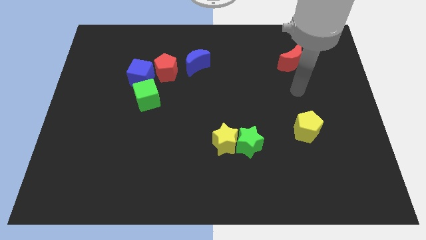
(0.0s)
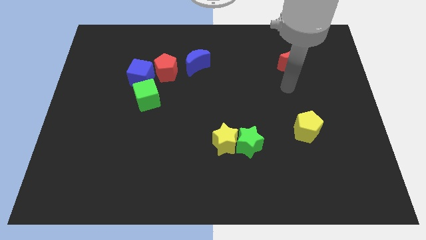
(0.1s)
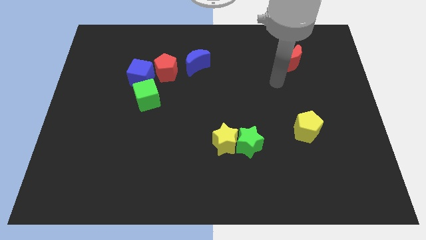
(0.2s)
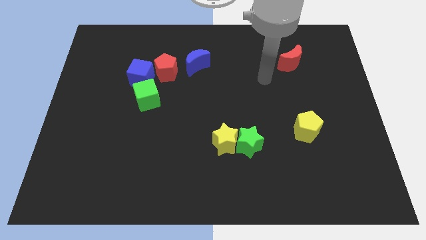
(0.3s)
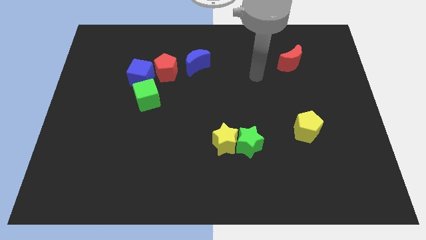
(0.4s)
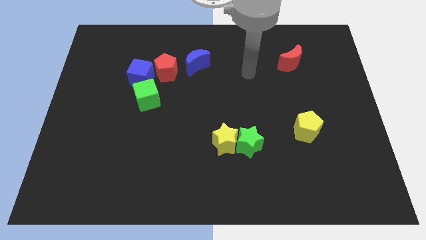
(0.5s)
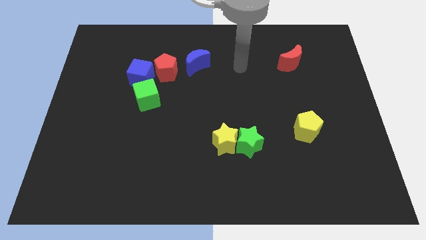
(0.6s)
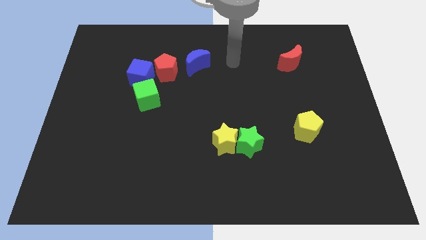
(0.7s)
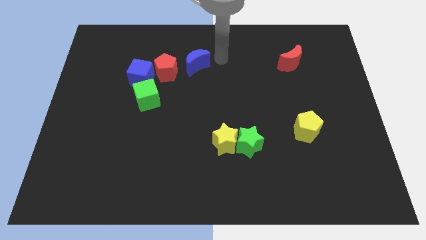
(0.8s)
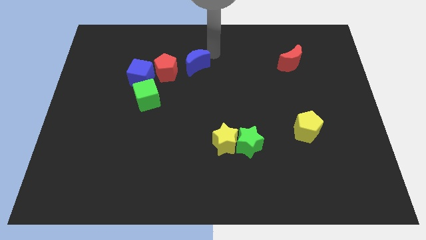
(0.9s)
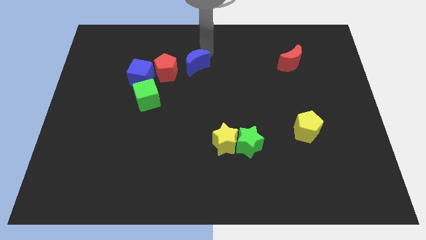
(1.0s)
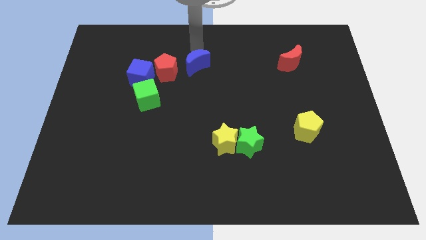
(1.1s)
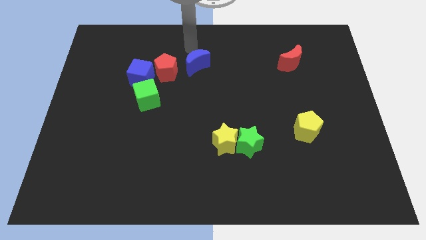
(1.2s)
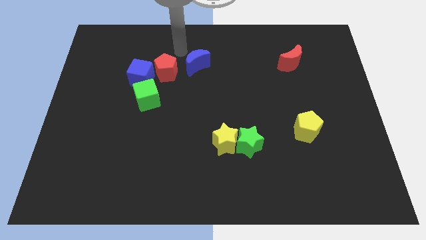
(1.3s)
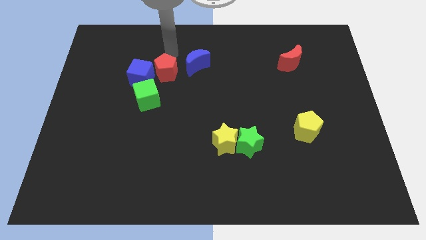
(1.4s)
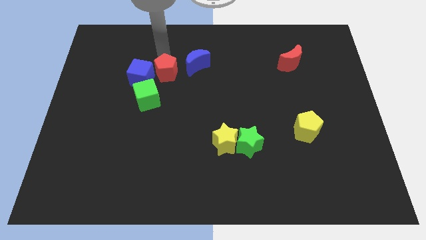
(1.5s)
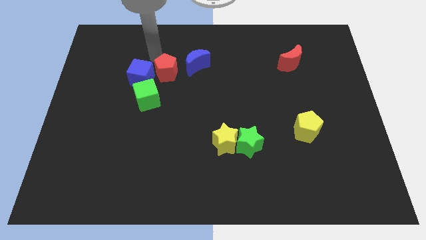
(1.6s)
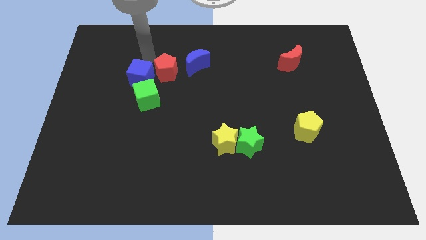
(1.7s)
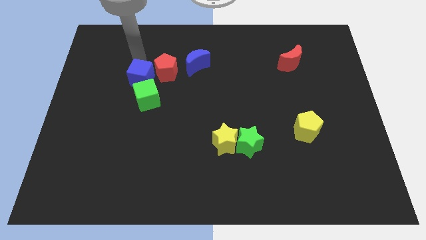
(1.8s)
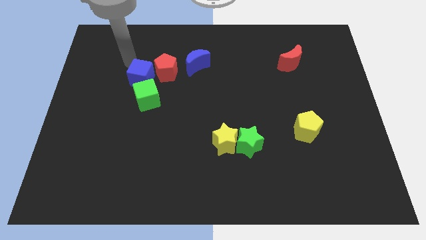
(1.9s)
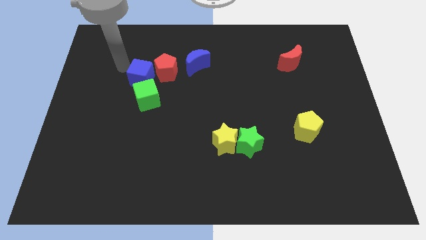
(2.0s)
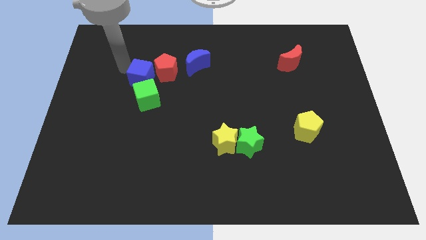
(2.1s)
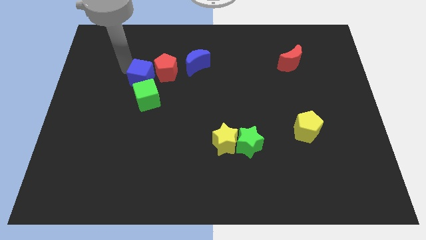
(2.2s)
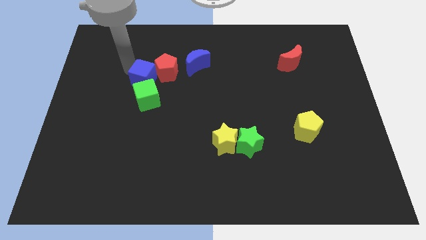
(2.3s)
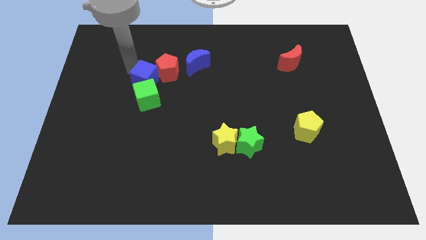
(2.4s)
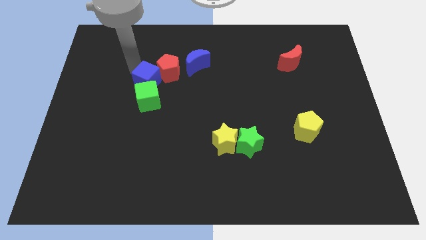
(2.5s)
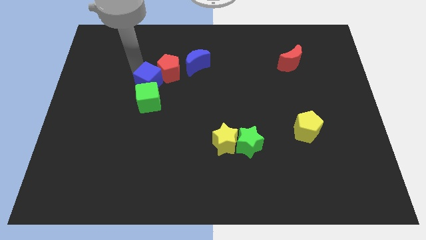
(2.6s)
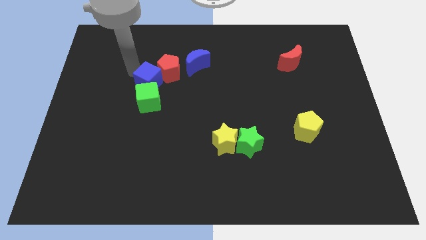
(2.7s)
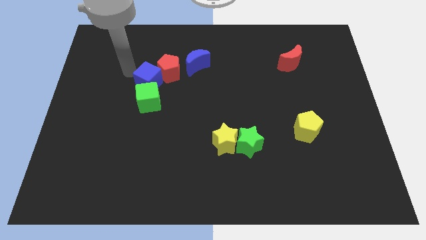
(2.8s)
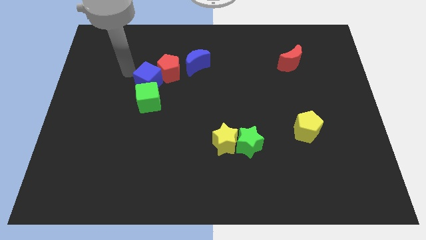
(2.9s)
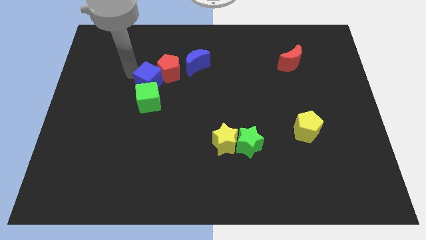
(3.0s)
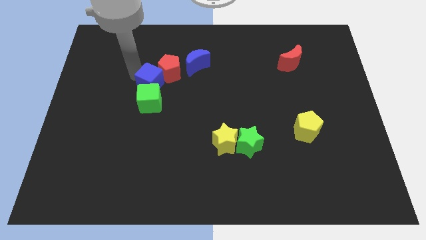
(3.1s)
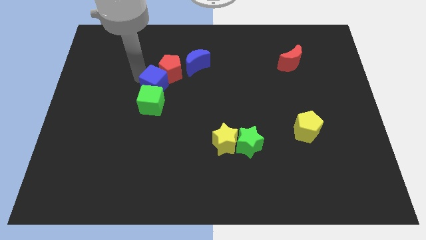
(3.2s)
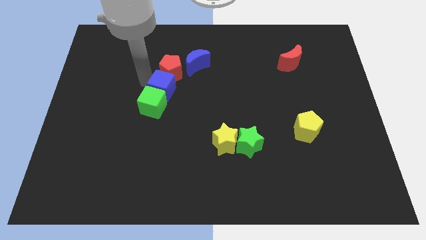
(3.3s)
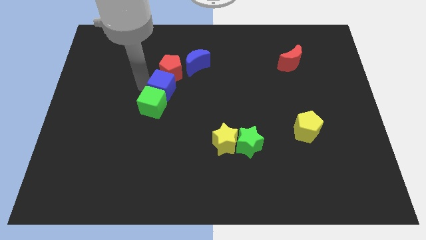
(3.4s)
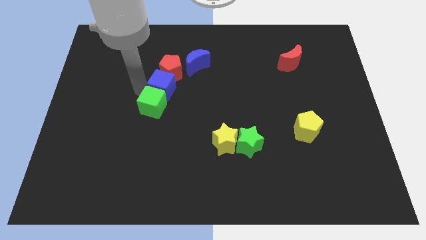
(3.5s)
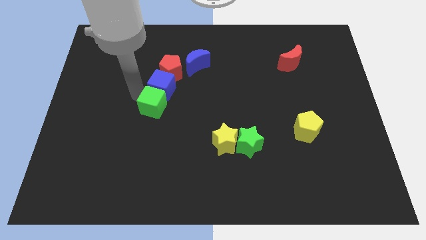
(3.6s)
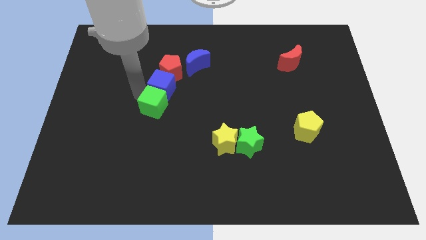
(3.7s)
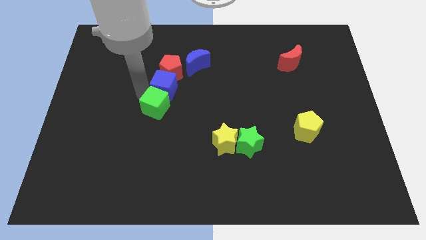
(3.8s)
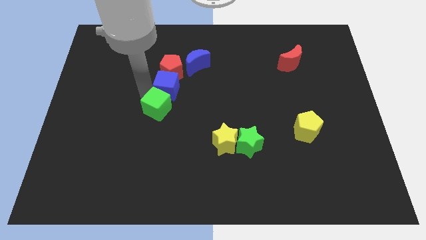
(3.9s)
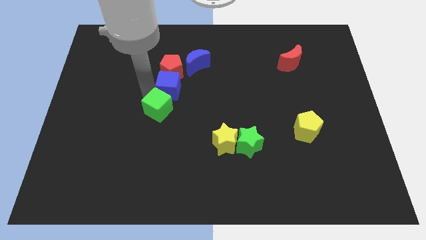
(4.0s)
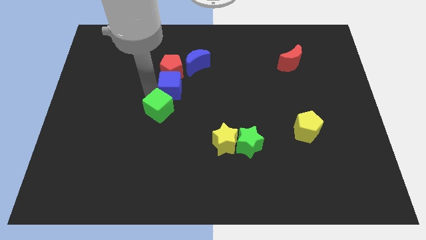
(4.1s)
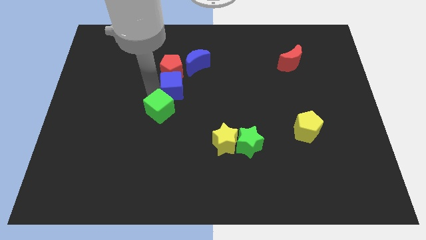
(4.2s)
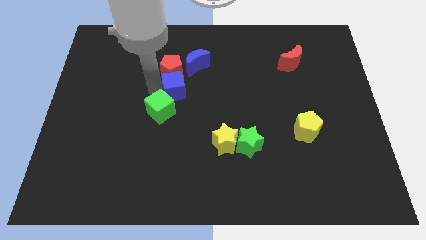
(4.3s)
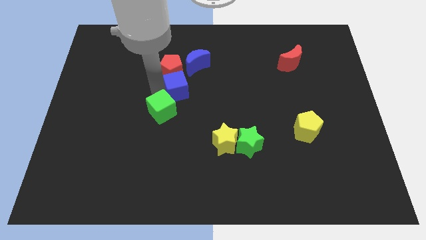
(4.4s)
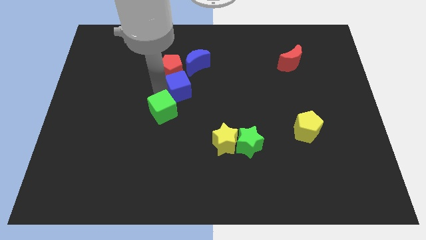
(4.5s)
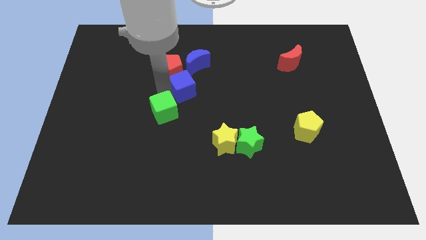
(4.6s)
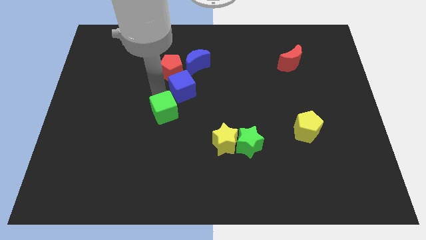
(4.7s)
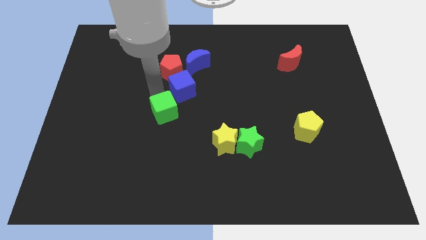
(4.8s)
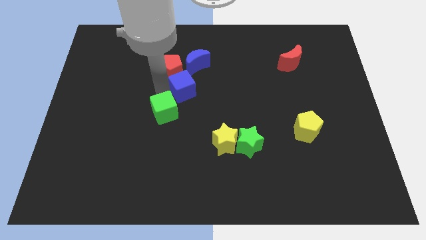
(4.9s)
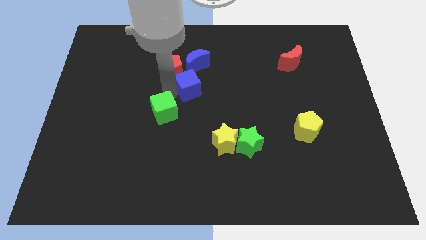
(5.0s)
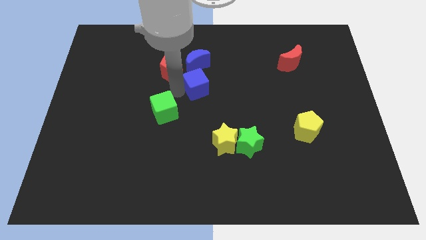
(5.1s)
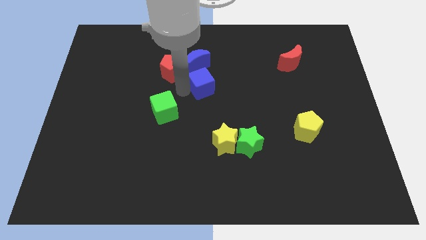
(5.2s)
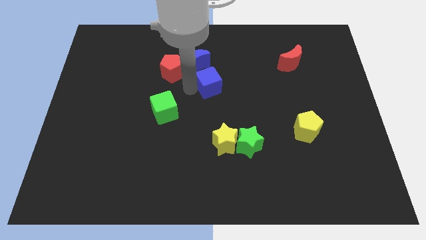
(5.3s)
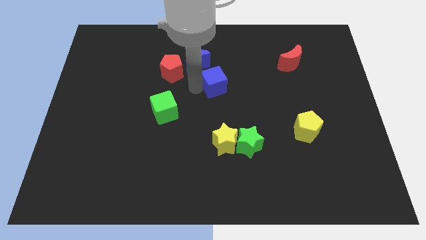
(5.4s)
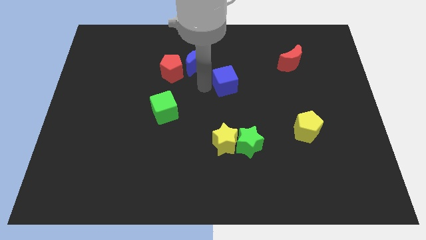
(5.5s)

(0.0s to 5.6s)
move the blue cube to the right

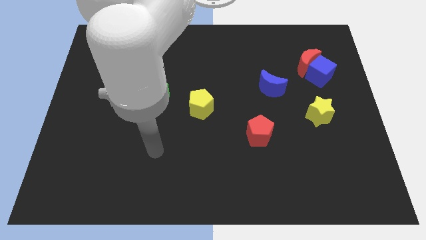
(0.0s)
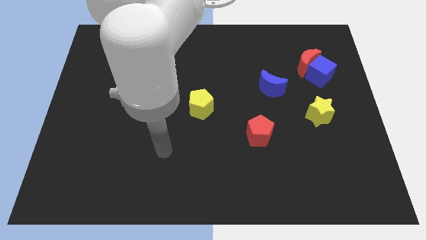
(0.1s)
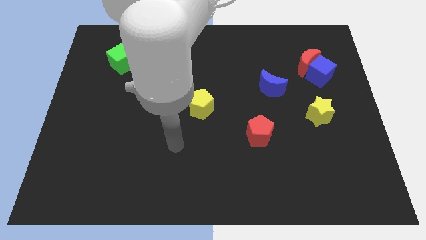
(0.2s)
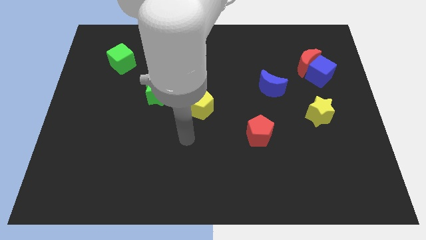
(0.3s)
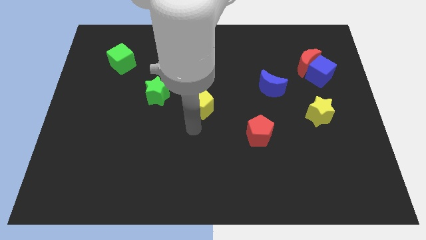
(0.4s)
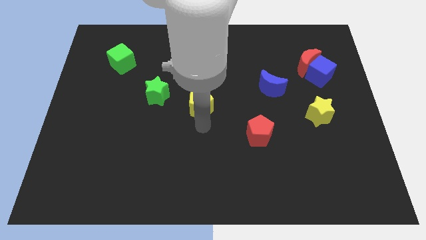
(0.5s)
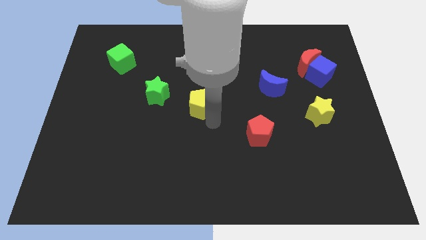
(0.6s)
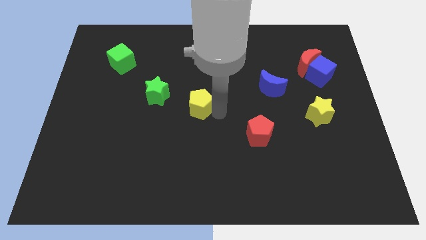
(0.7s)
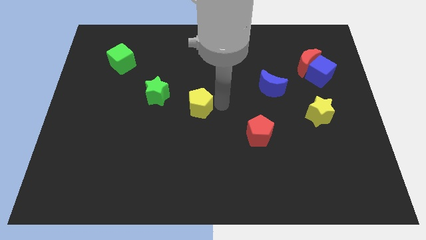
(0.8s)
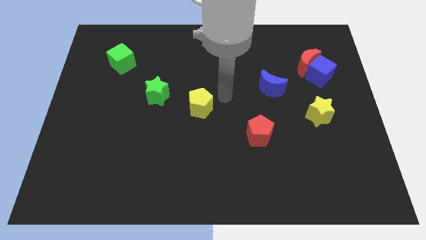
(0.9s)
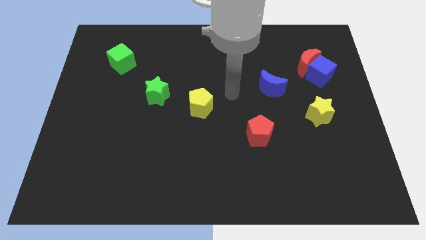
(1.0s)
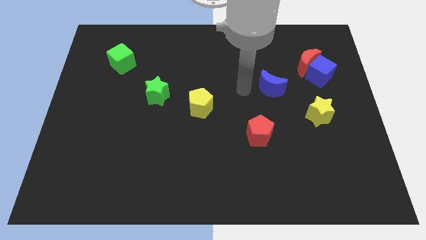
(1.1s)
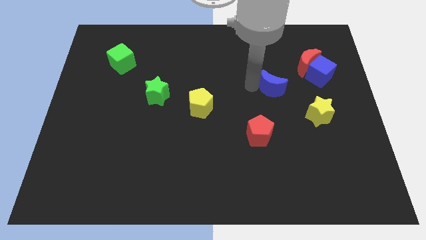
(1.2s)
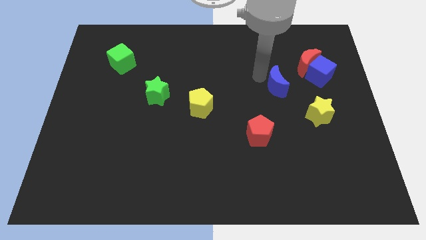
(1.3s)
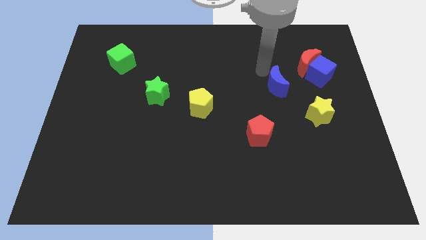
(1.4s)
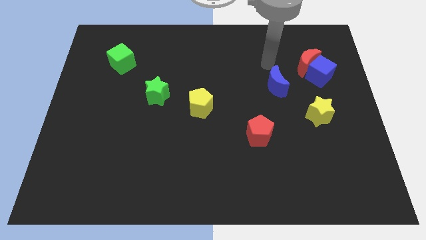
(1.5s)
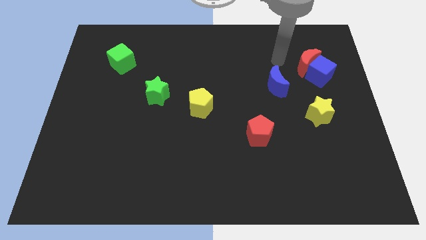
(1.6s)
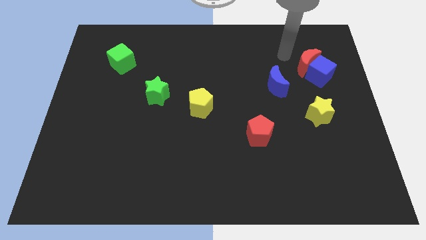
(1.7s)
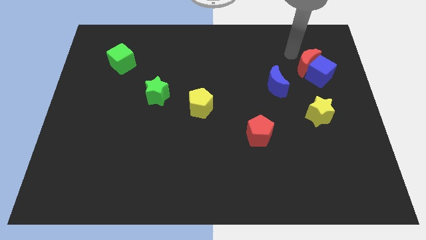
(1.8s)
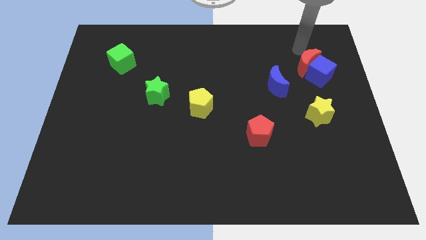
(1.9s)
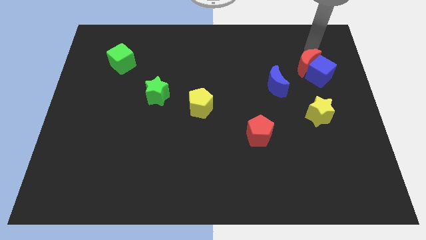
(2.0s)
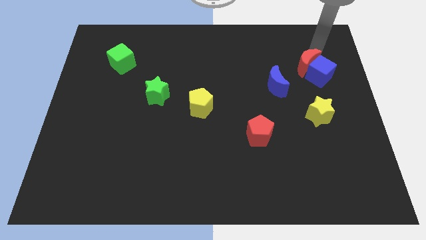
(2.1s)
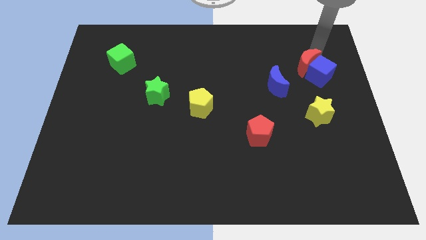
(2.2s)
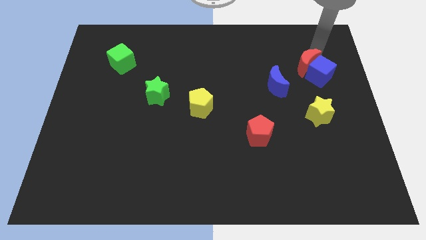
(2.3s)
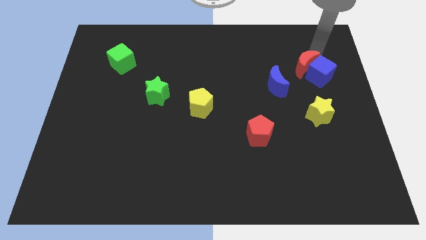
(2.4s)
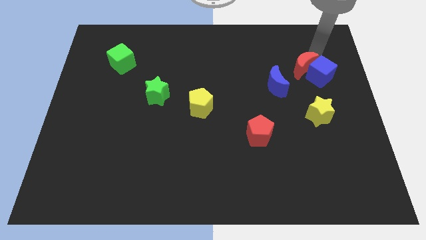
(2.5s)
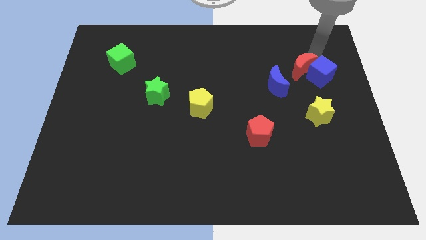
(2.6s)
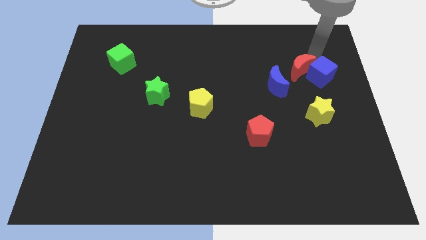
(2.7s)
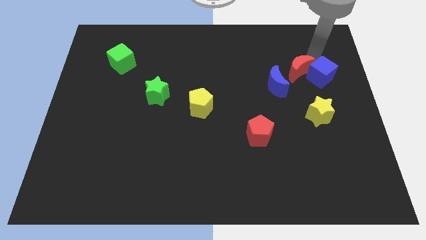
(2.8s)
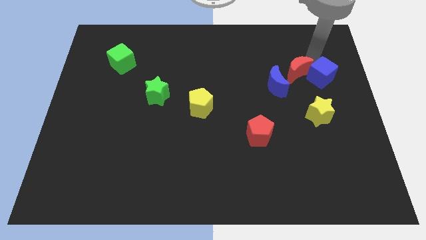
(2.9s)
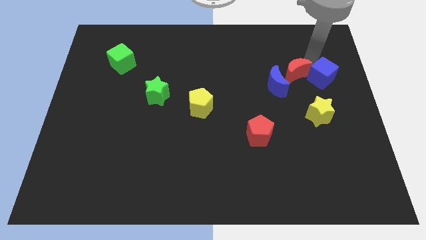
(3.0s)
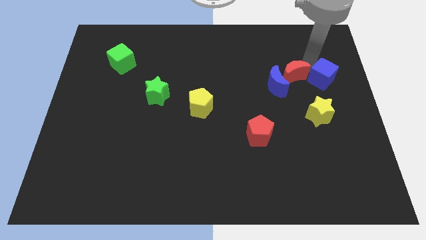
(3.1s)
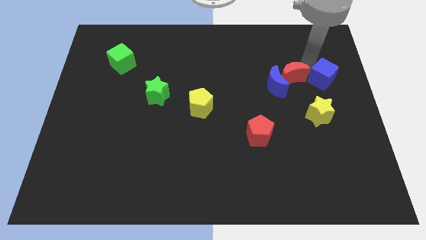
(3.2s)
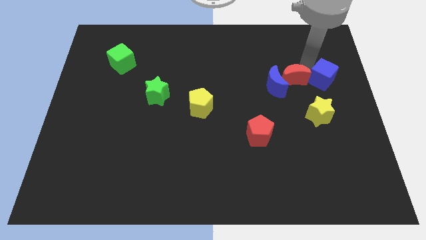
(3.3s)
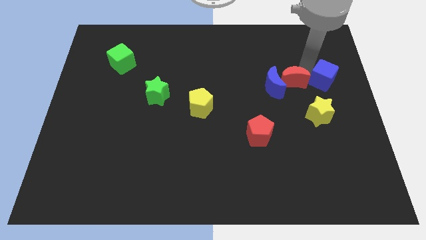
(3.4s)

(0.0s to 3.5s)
push the red moon downwards and left slightly
